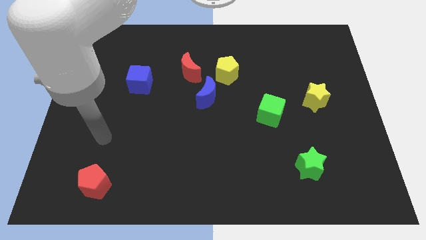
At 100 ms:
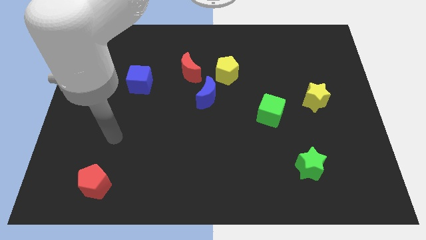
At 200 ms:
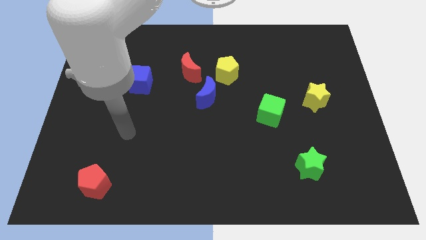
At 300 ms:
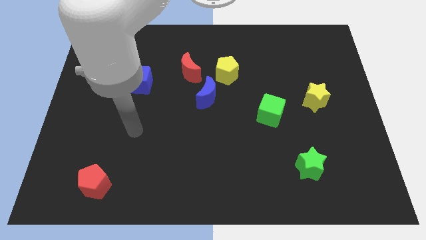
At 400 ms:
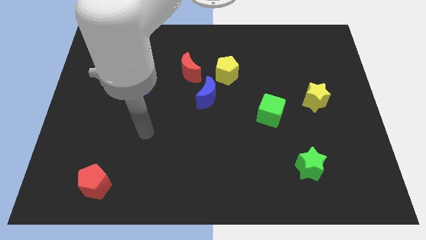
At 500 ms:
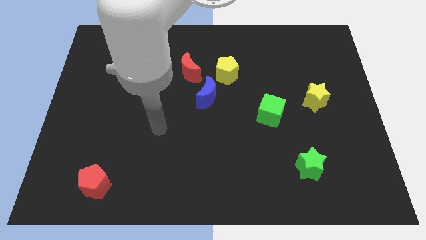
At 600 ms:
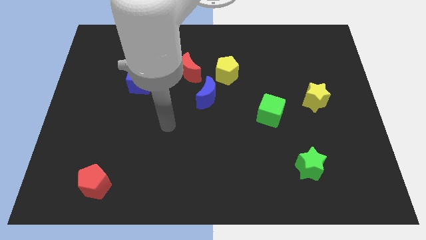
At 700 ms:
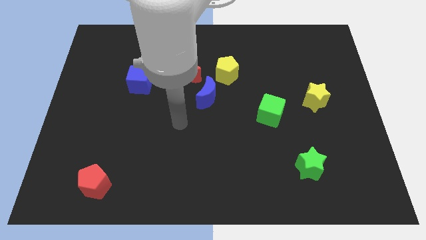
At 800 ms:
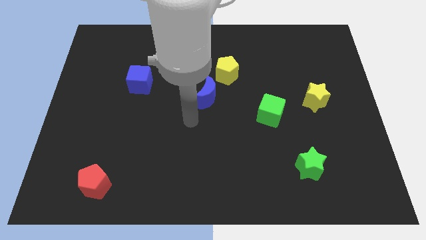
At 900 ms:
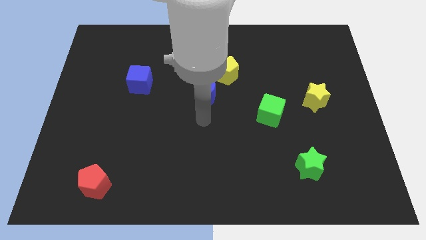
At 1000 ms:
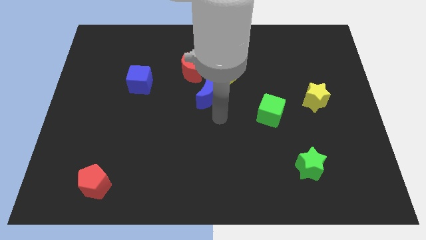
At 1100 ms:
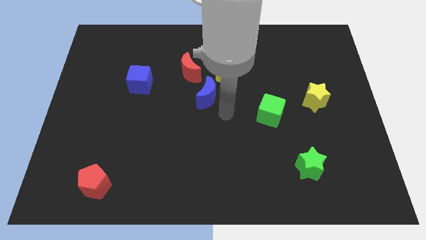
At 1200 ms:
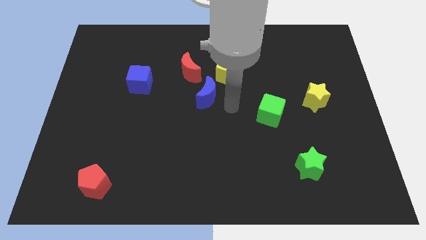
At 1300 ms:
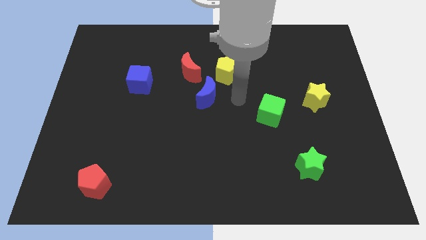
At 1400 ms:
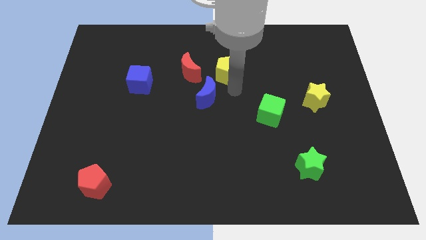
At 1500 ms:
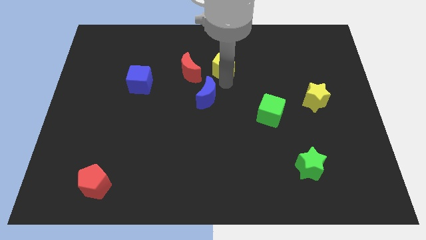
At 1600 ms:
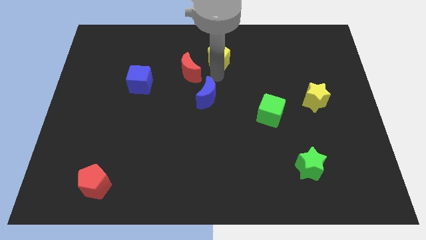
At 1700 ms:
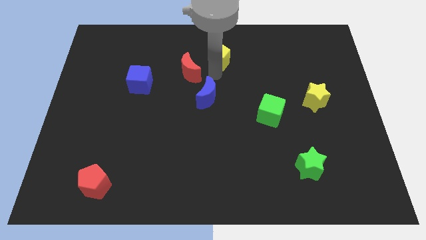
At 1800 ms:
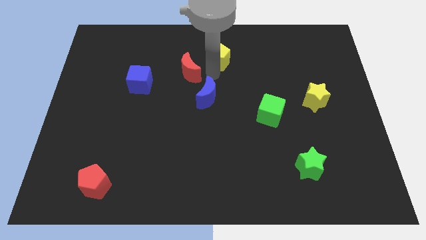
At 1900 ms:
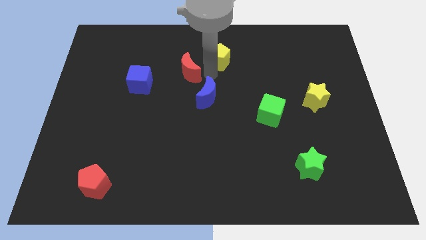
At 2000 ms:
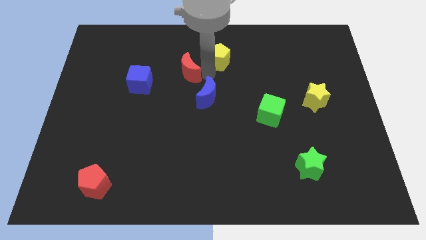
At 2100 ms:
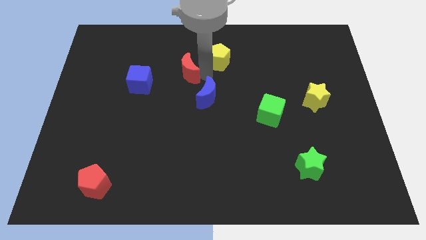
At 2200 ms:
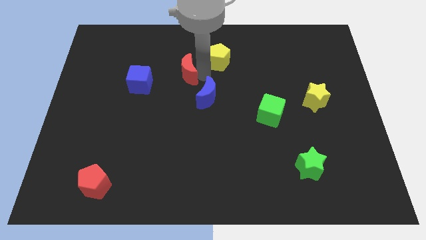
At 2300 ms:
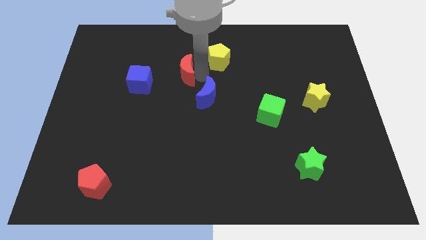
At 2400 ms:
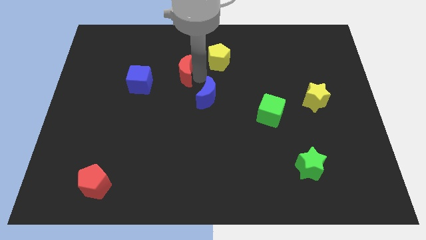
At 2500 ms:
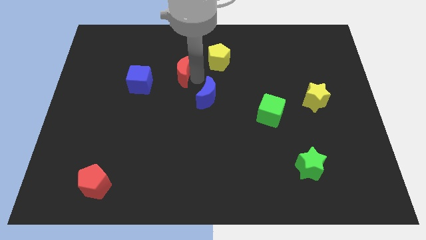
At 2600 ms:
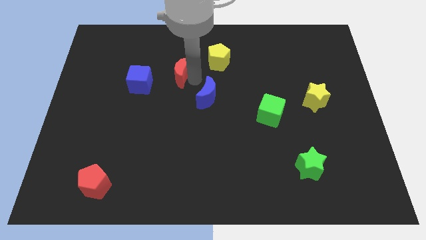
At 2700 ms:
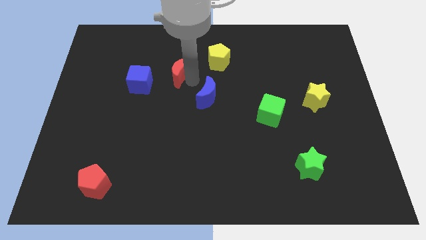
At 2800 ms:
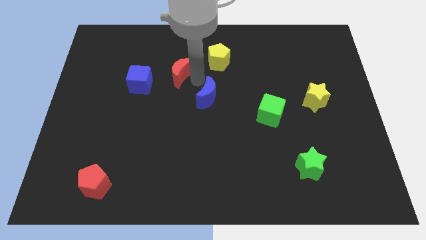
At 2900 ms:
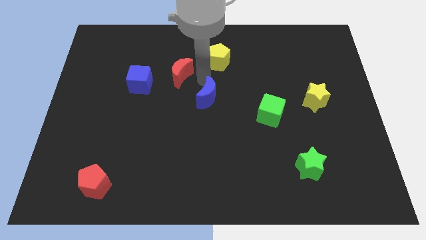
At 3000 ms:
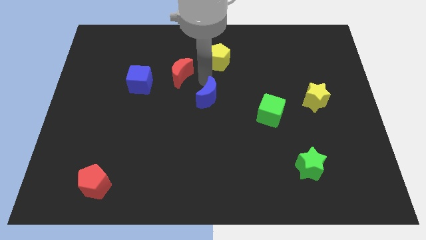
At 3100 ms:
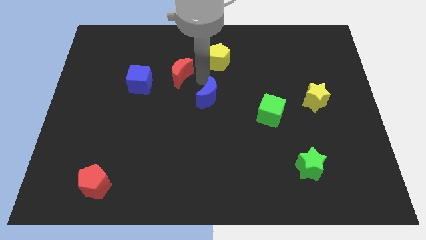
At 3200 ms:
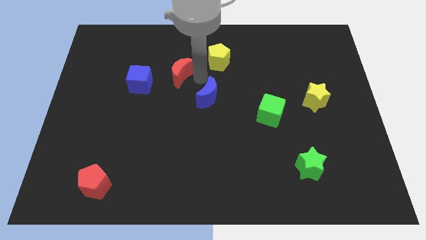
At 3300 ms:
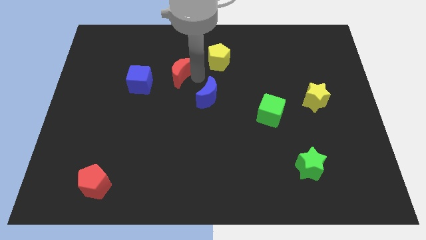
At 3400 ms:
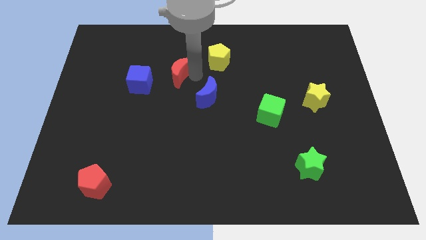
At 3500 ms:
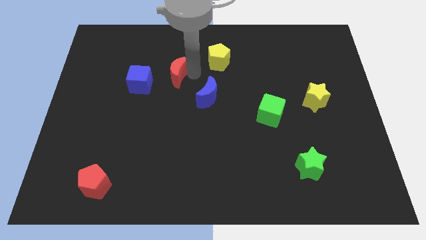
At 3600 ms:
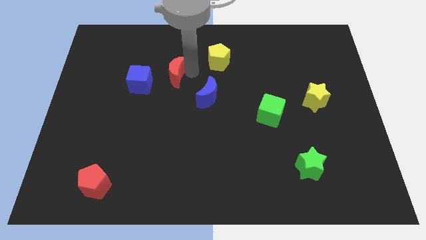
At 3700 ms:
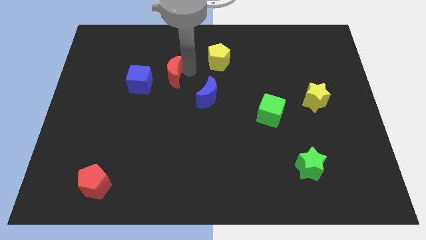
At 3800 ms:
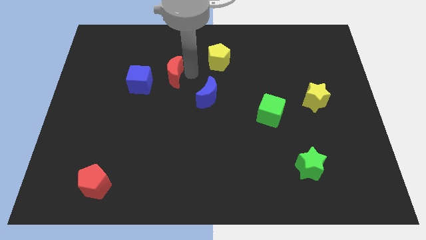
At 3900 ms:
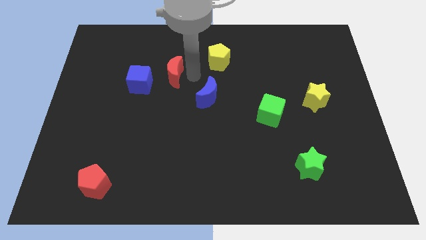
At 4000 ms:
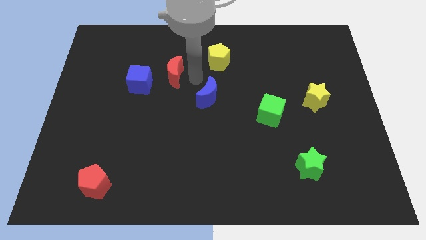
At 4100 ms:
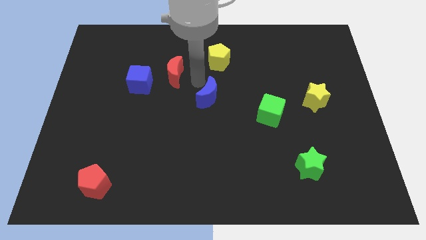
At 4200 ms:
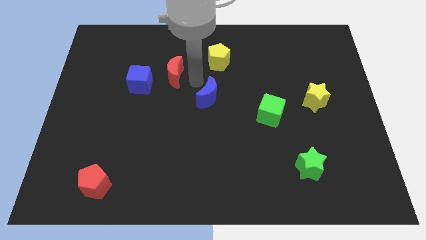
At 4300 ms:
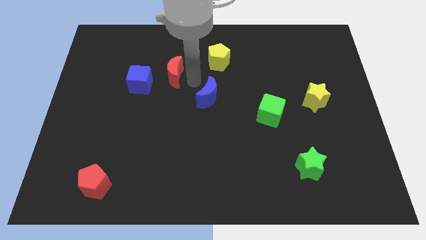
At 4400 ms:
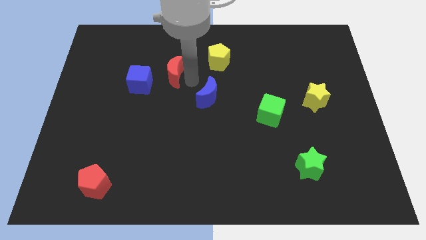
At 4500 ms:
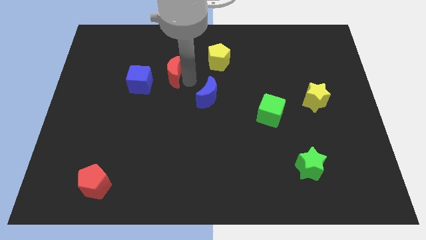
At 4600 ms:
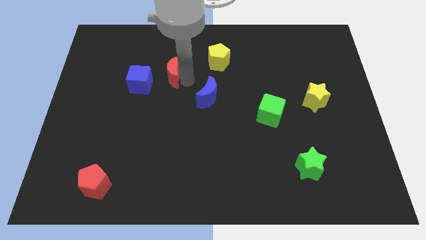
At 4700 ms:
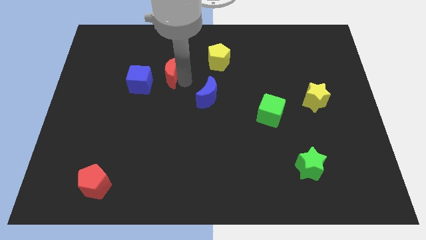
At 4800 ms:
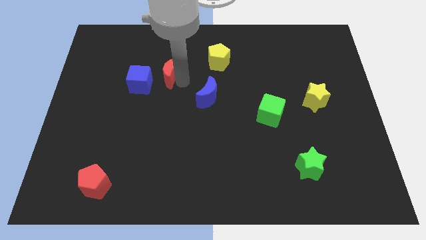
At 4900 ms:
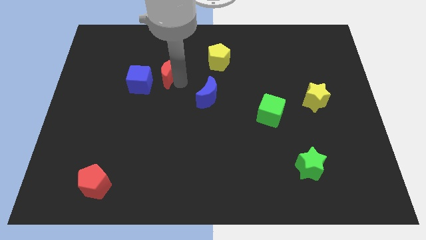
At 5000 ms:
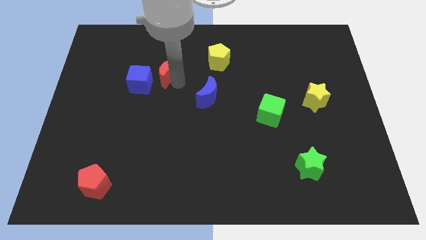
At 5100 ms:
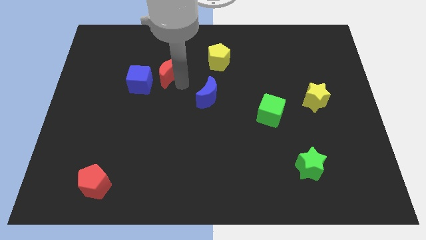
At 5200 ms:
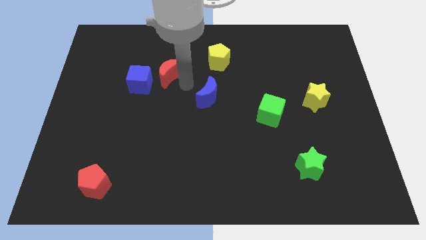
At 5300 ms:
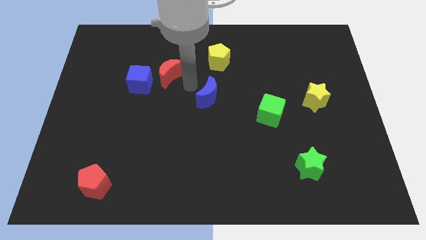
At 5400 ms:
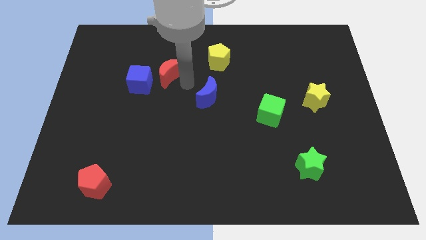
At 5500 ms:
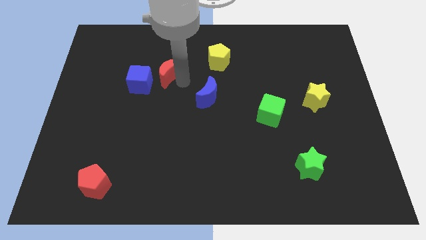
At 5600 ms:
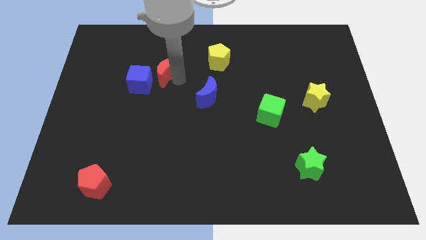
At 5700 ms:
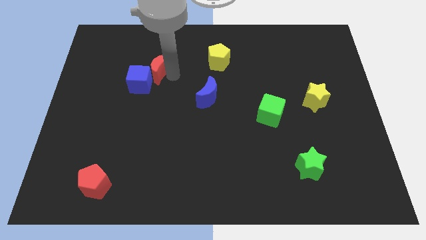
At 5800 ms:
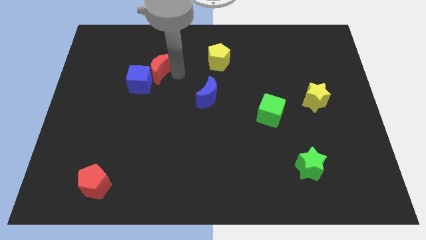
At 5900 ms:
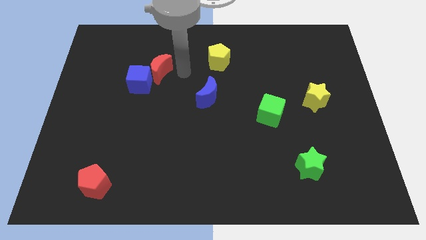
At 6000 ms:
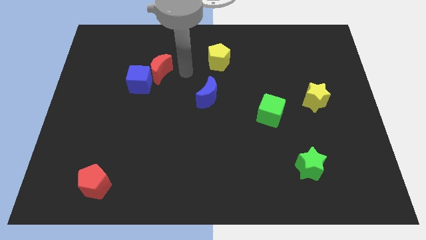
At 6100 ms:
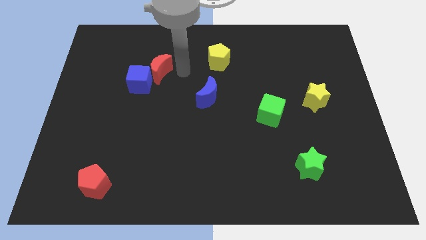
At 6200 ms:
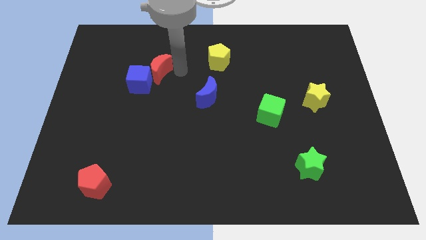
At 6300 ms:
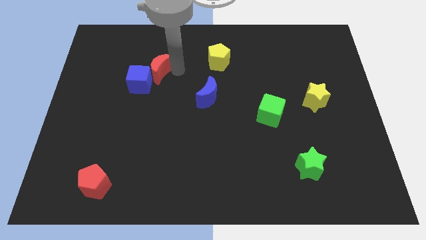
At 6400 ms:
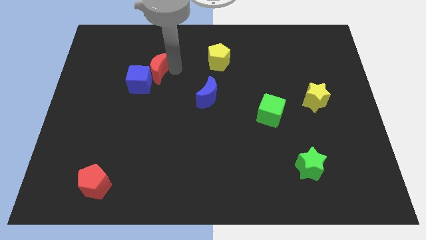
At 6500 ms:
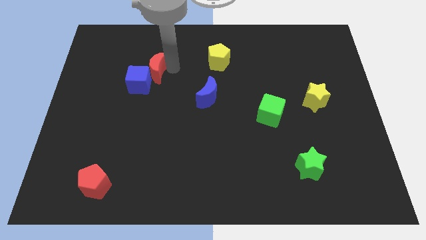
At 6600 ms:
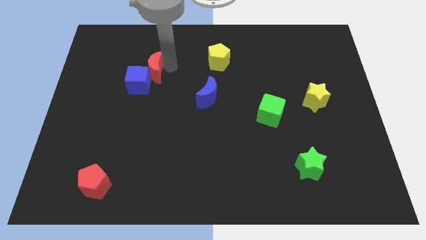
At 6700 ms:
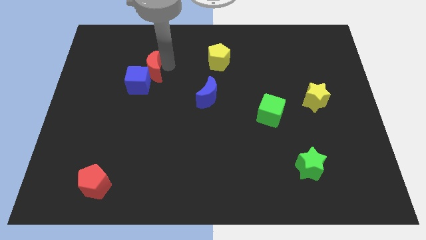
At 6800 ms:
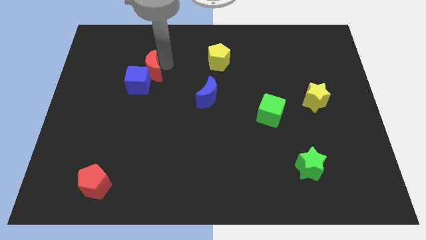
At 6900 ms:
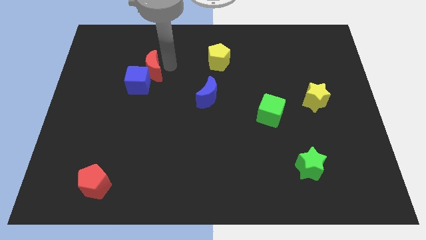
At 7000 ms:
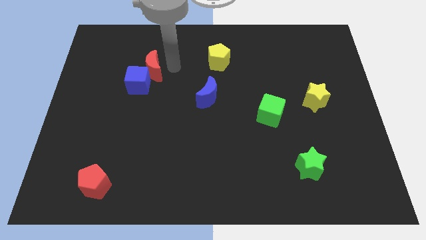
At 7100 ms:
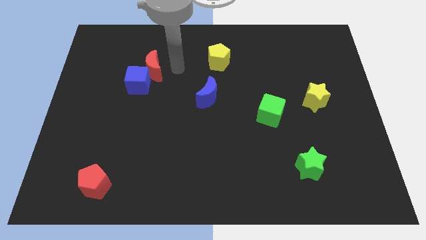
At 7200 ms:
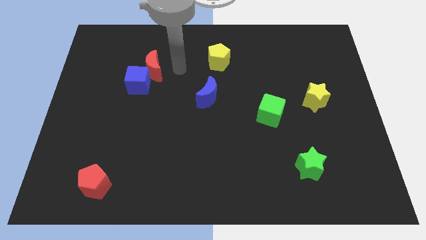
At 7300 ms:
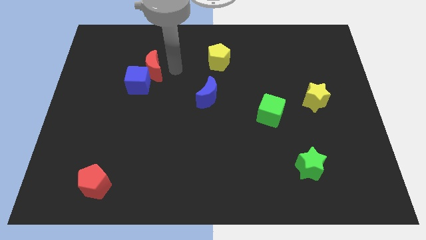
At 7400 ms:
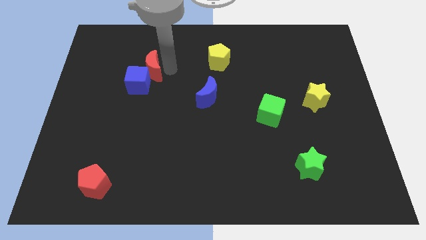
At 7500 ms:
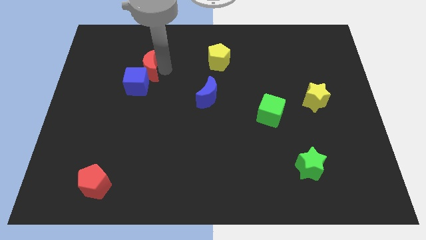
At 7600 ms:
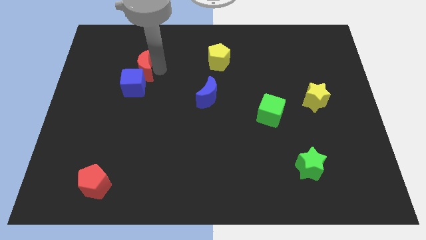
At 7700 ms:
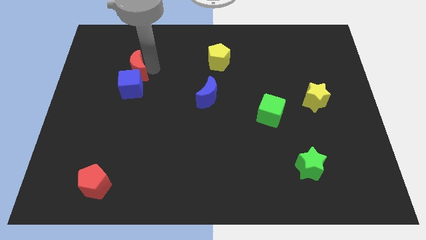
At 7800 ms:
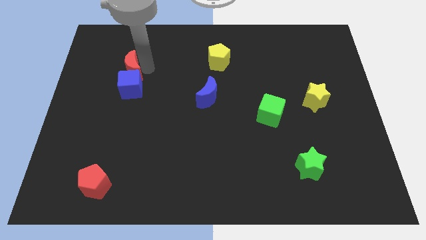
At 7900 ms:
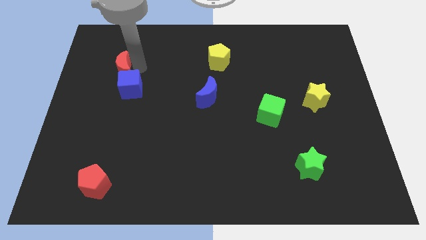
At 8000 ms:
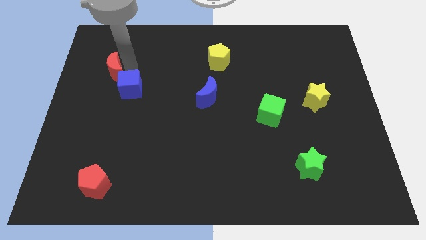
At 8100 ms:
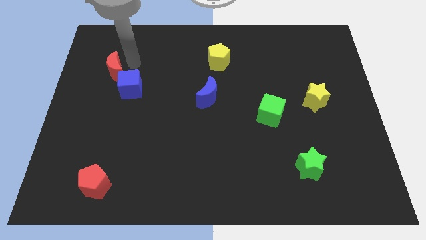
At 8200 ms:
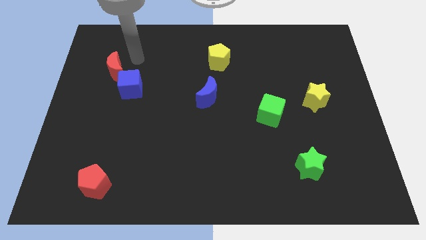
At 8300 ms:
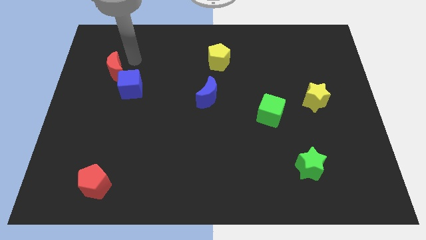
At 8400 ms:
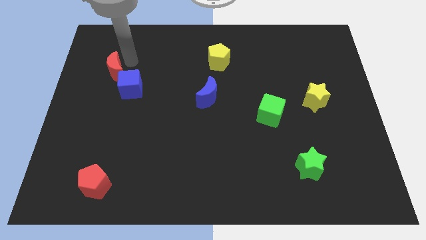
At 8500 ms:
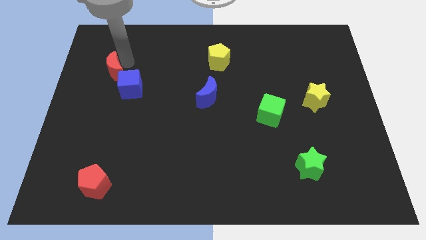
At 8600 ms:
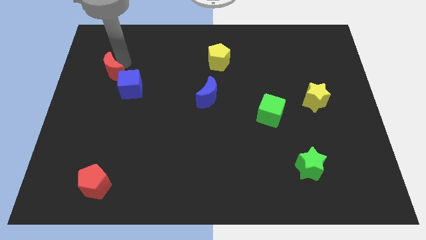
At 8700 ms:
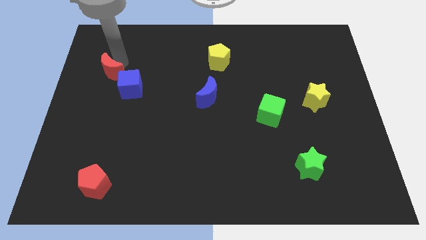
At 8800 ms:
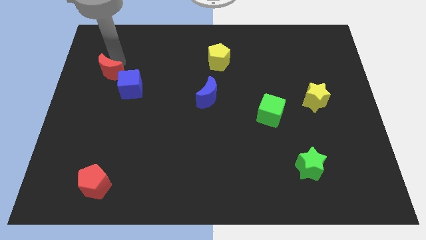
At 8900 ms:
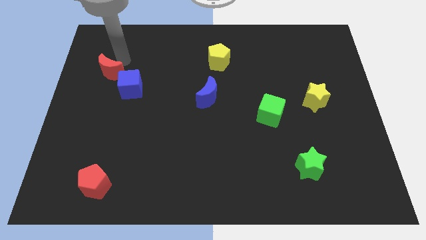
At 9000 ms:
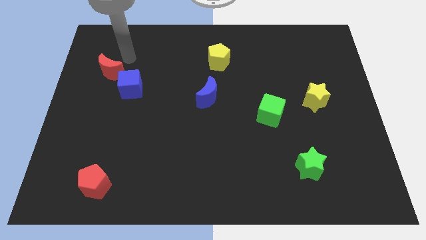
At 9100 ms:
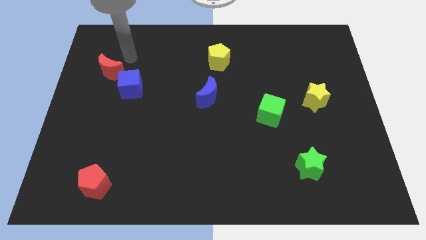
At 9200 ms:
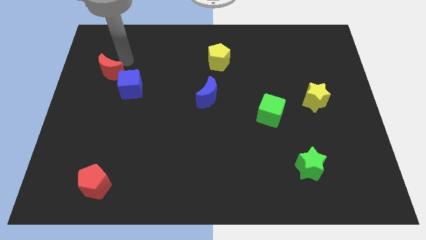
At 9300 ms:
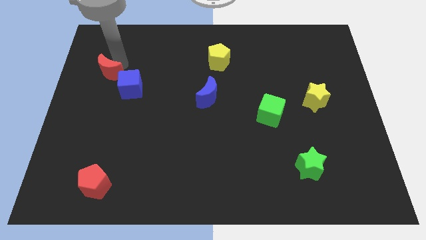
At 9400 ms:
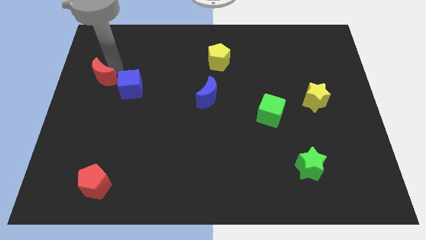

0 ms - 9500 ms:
move the red moon just left of the blue cube
